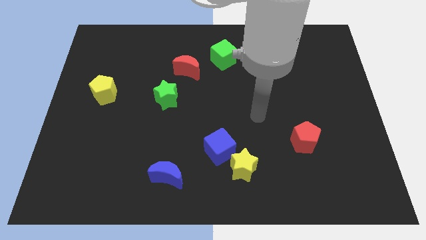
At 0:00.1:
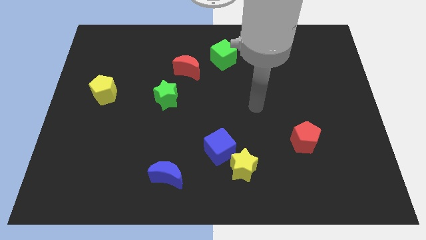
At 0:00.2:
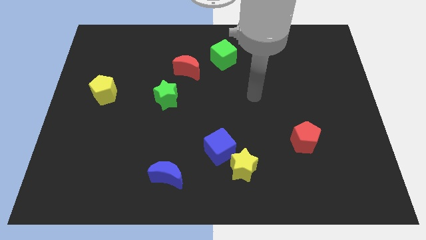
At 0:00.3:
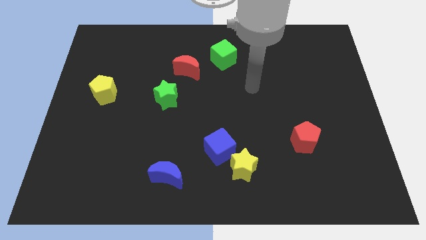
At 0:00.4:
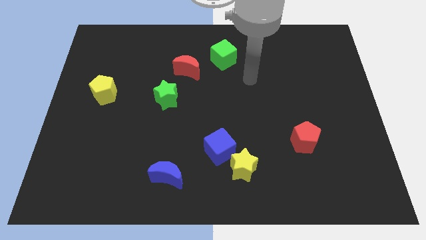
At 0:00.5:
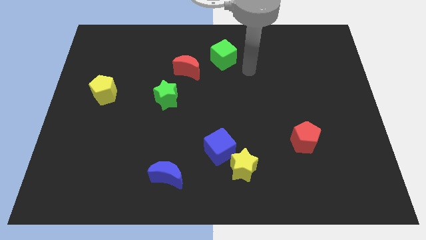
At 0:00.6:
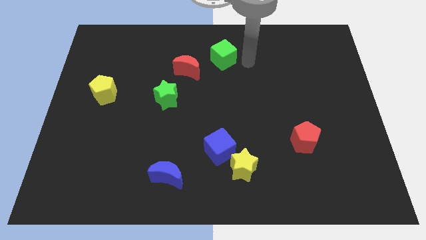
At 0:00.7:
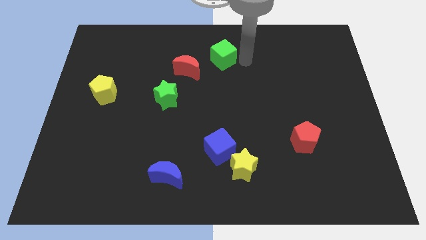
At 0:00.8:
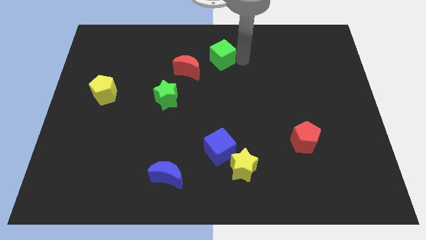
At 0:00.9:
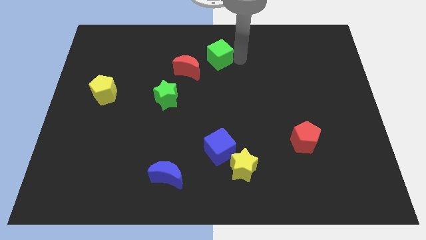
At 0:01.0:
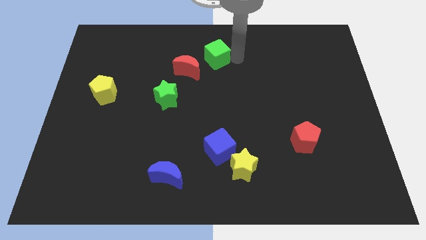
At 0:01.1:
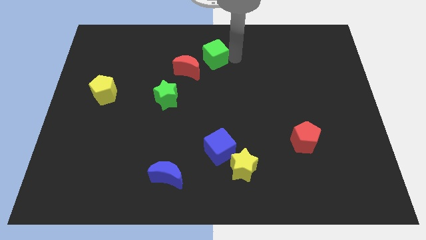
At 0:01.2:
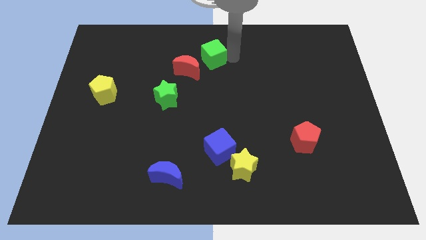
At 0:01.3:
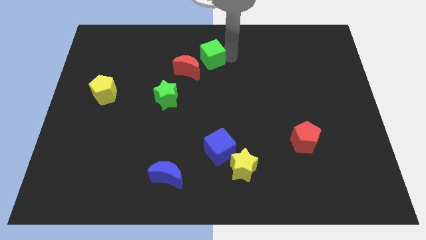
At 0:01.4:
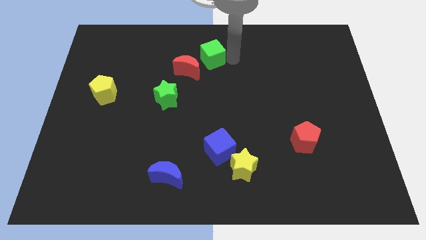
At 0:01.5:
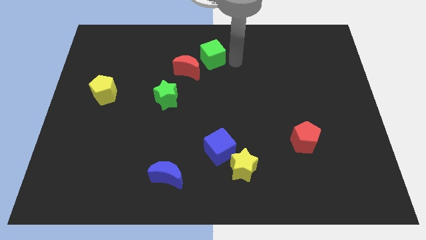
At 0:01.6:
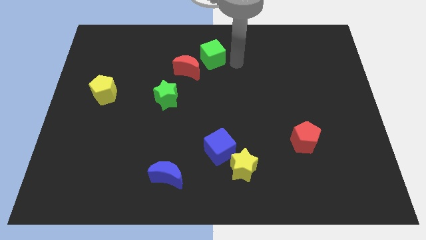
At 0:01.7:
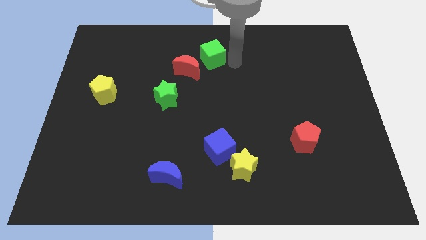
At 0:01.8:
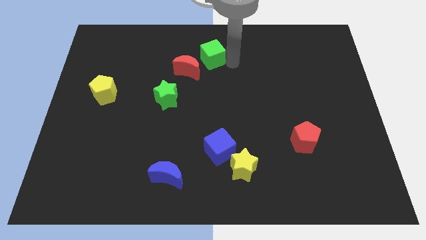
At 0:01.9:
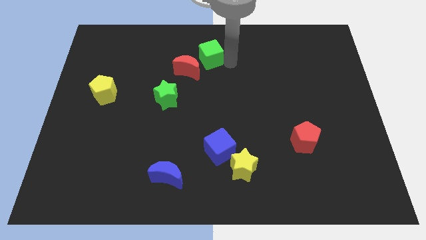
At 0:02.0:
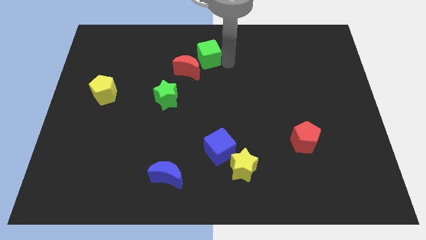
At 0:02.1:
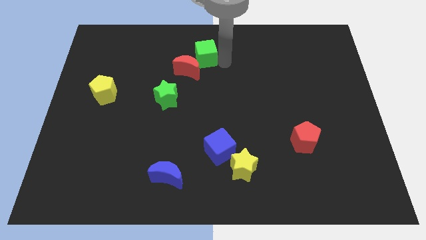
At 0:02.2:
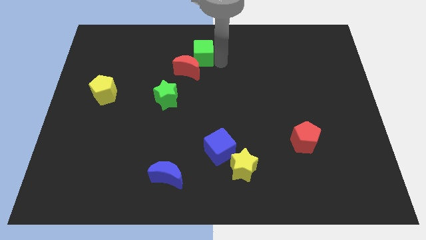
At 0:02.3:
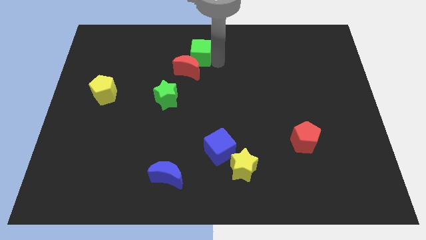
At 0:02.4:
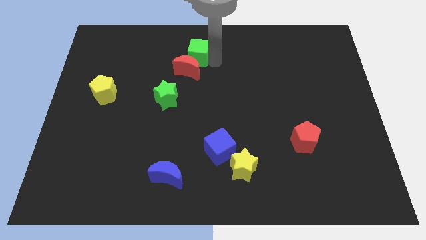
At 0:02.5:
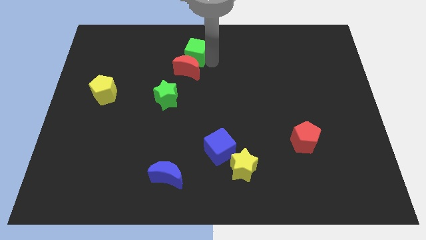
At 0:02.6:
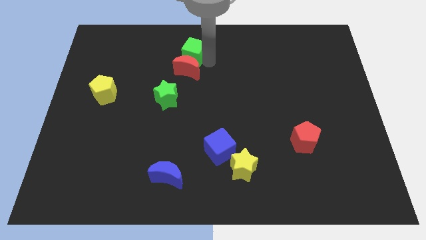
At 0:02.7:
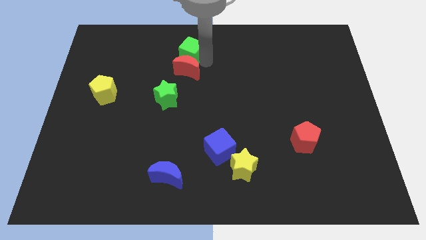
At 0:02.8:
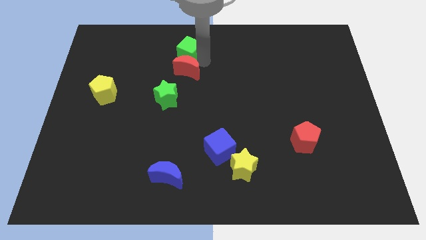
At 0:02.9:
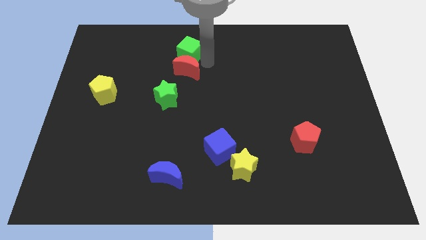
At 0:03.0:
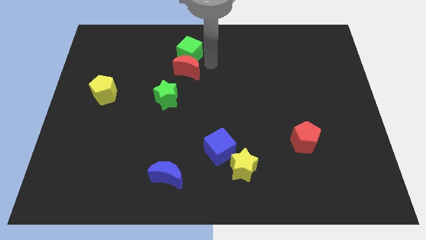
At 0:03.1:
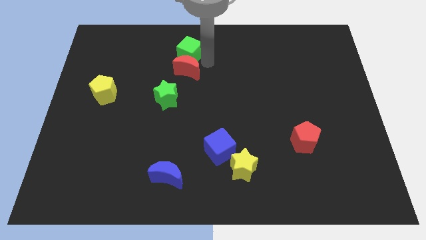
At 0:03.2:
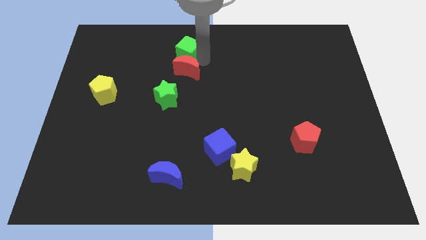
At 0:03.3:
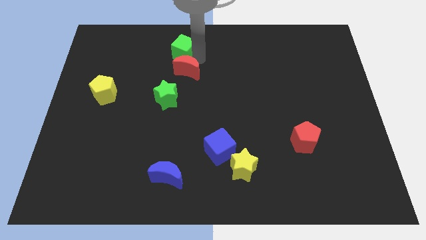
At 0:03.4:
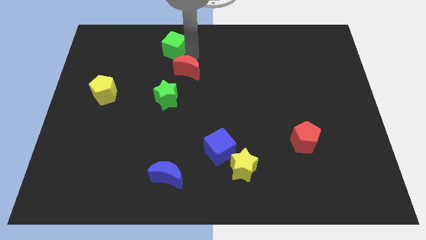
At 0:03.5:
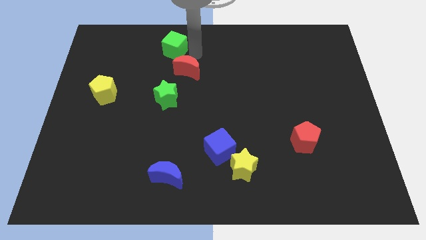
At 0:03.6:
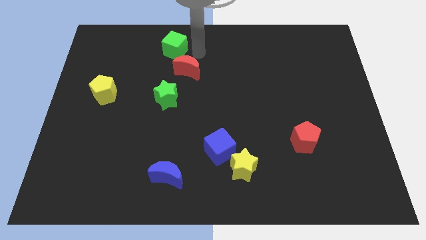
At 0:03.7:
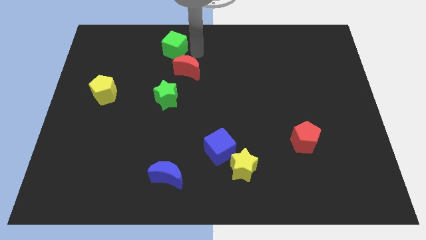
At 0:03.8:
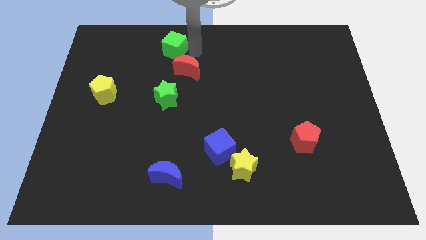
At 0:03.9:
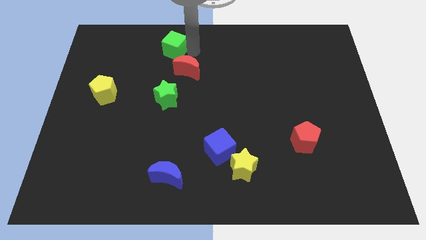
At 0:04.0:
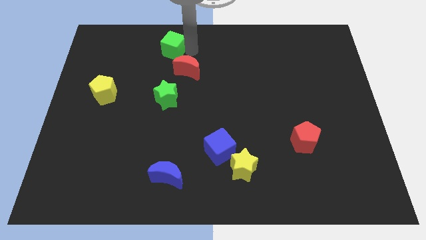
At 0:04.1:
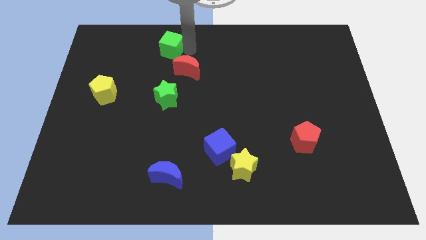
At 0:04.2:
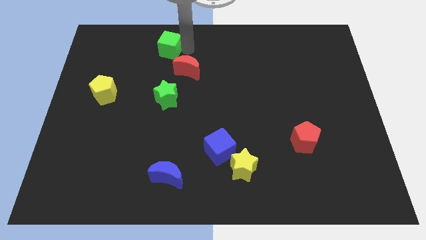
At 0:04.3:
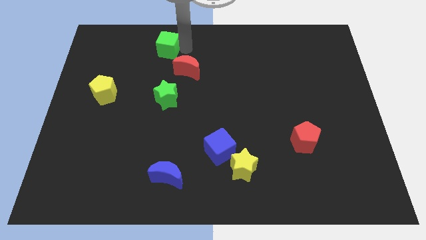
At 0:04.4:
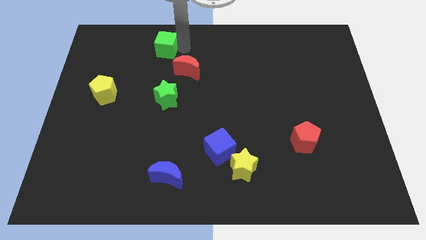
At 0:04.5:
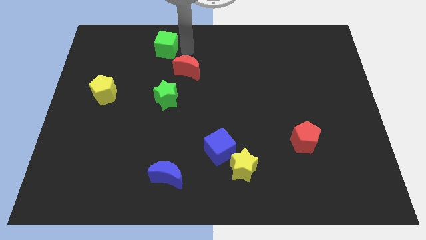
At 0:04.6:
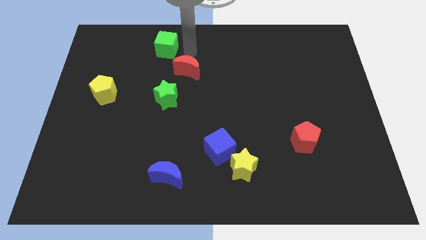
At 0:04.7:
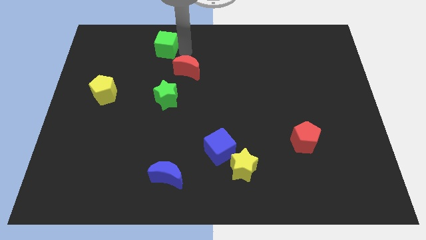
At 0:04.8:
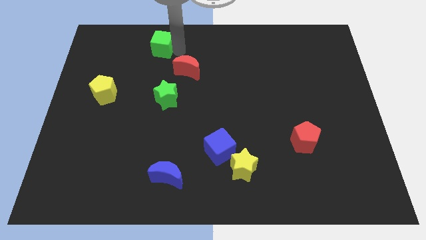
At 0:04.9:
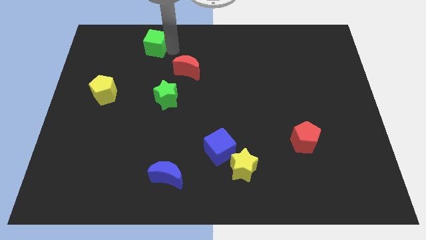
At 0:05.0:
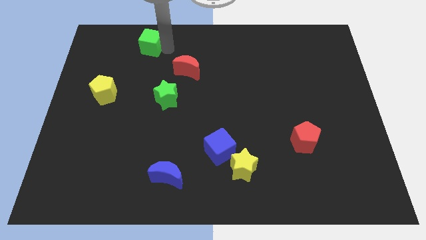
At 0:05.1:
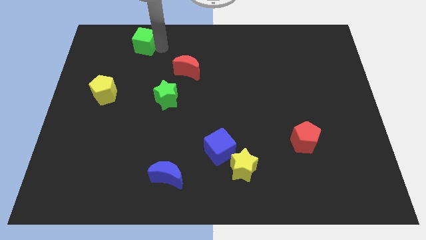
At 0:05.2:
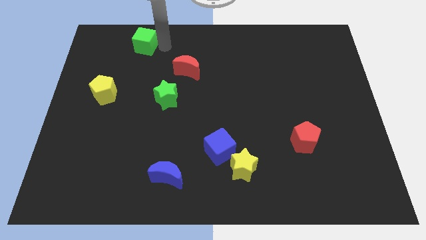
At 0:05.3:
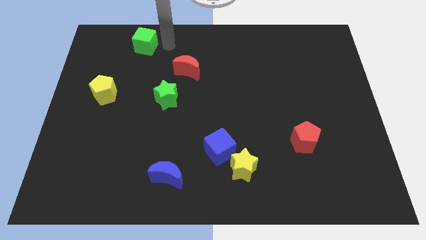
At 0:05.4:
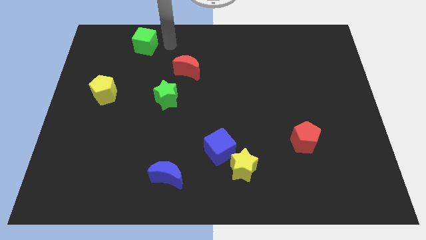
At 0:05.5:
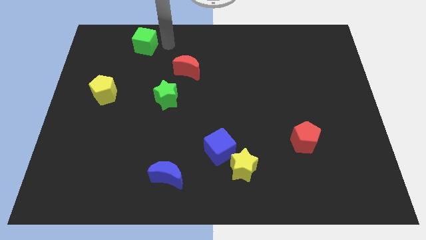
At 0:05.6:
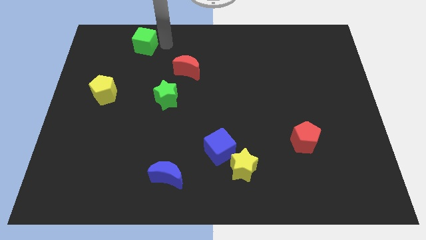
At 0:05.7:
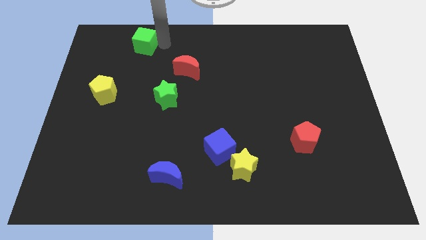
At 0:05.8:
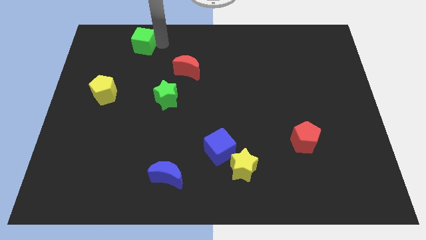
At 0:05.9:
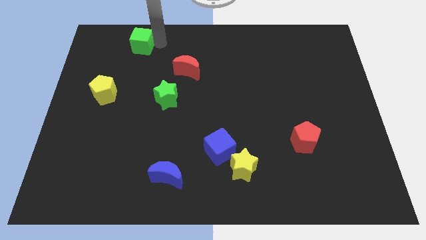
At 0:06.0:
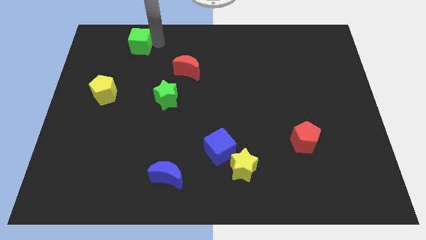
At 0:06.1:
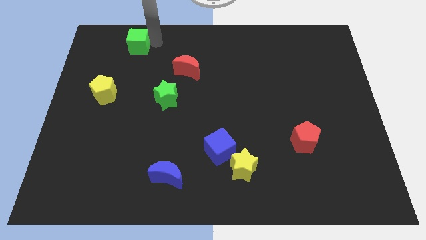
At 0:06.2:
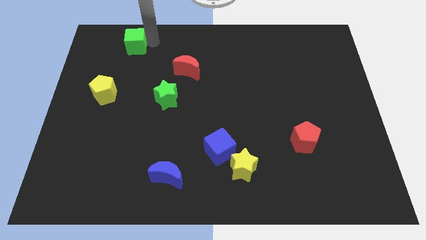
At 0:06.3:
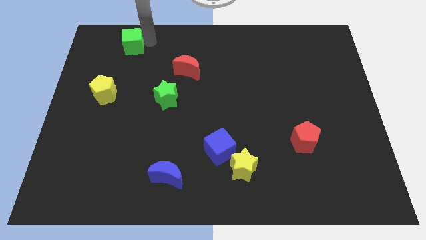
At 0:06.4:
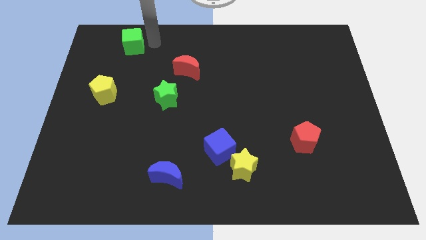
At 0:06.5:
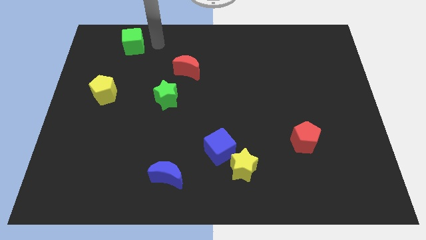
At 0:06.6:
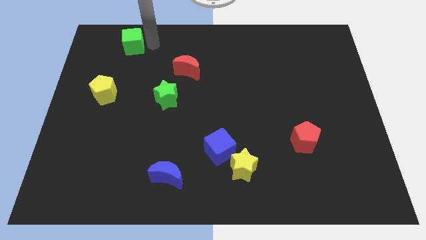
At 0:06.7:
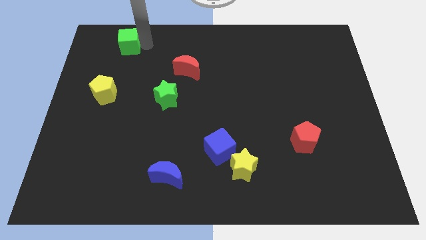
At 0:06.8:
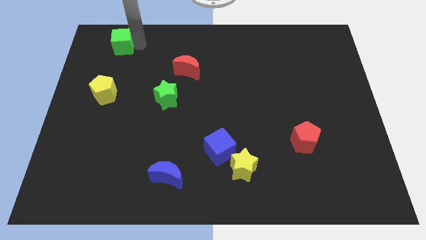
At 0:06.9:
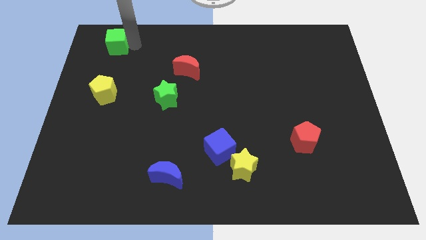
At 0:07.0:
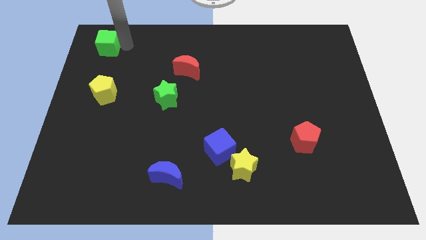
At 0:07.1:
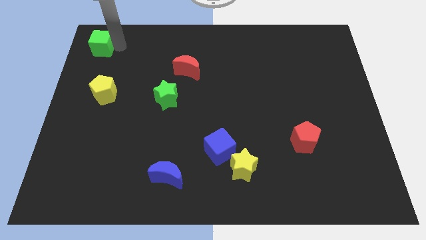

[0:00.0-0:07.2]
slide the green cube to the upper left corner
